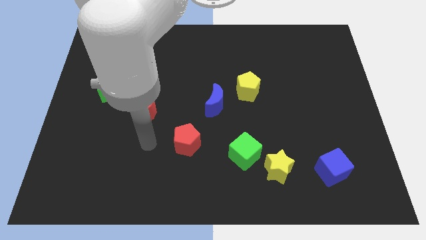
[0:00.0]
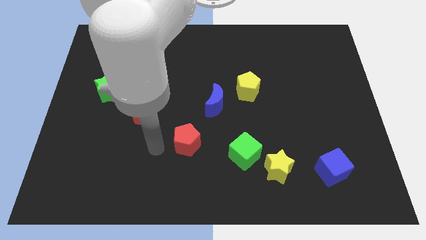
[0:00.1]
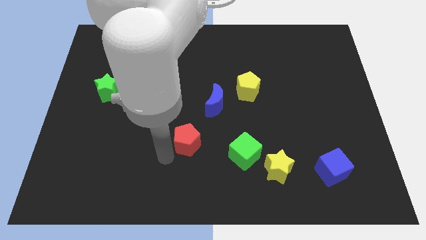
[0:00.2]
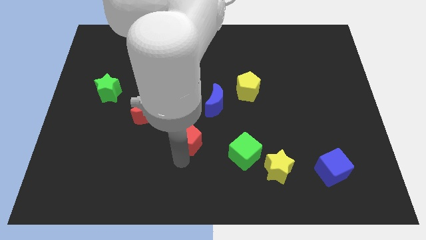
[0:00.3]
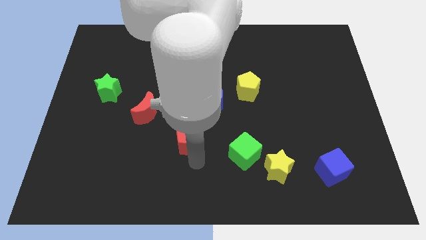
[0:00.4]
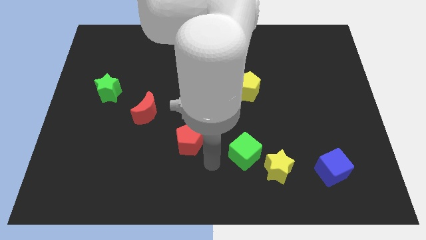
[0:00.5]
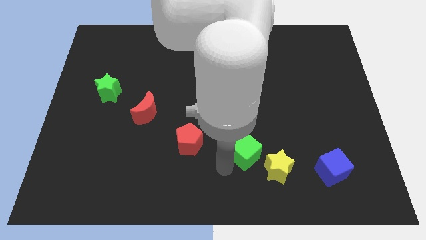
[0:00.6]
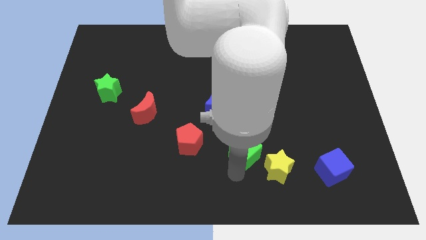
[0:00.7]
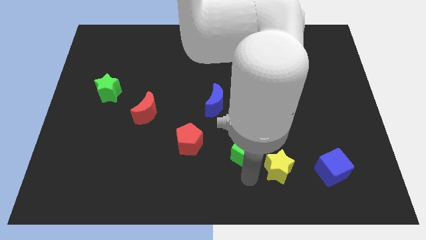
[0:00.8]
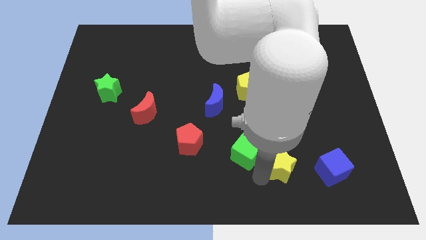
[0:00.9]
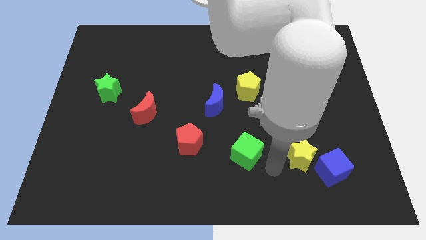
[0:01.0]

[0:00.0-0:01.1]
move the green cube away from the yellow star

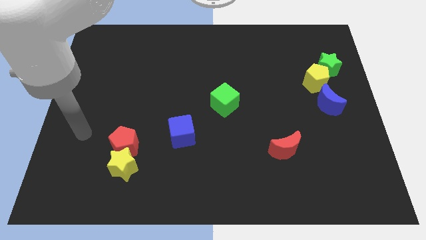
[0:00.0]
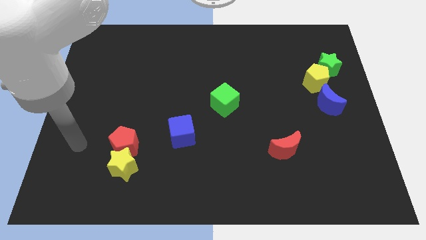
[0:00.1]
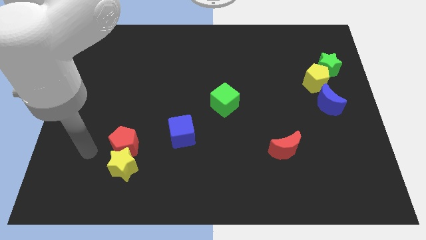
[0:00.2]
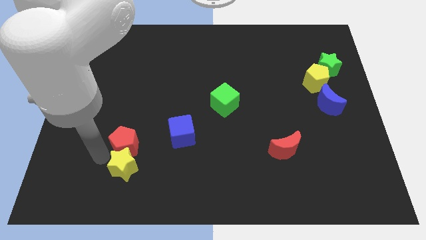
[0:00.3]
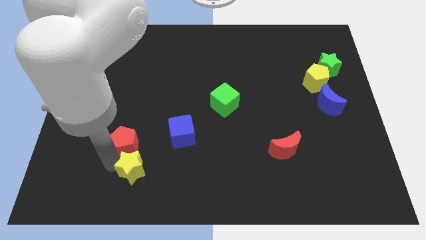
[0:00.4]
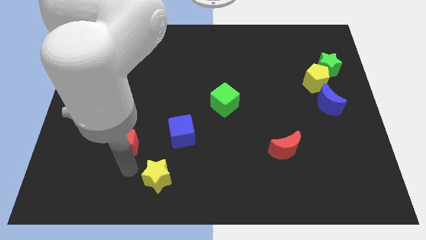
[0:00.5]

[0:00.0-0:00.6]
separate the red pentagon from the yellow star

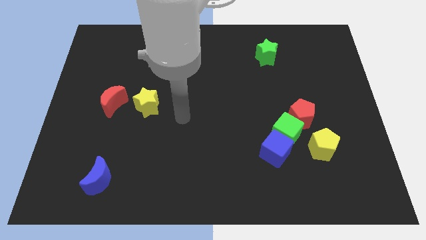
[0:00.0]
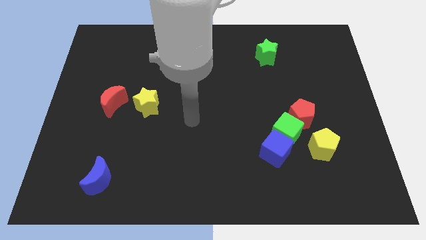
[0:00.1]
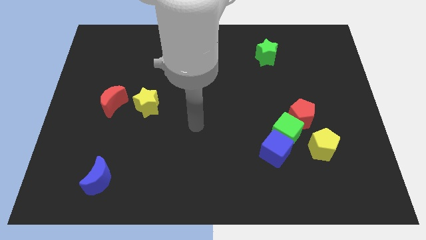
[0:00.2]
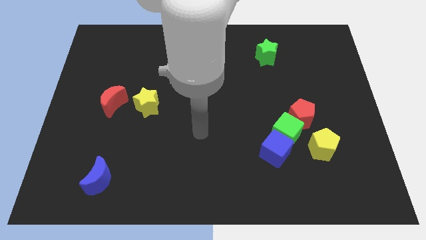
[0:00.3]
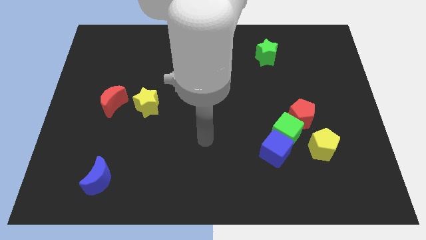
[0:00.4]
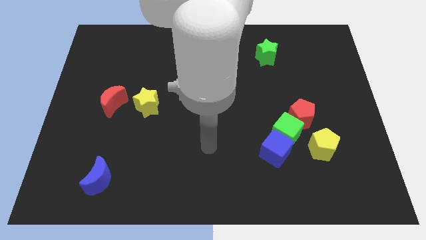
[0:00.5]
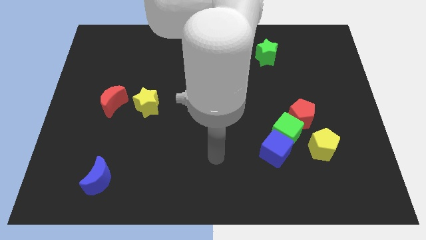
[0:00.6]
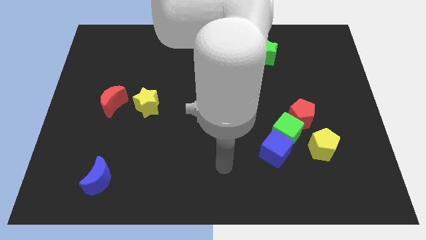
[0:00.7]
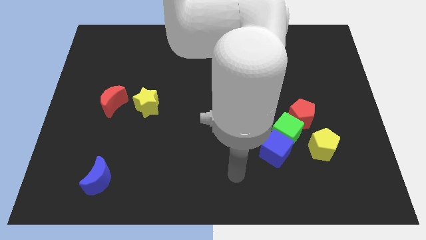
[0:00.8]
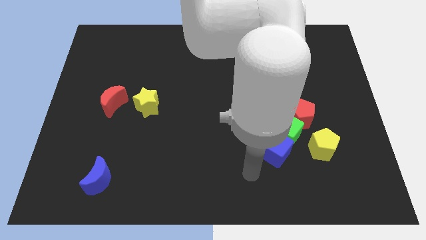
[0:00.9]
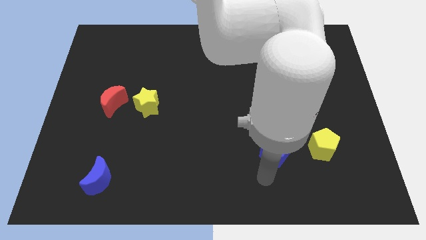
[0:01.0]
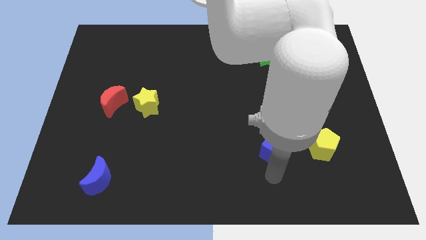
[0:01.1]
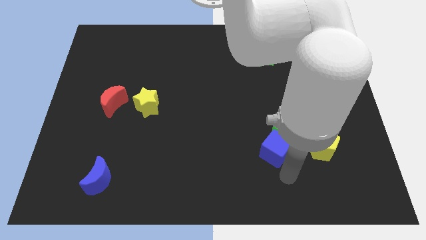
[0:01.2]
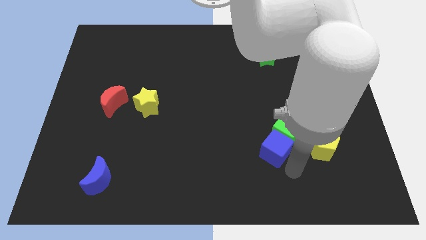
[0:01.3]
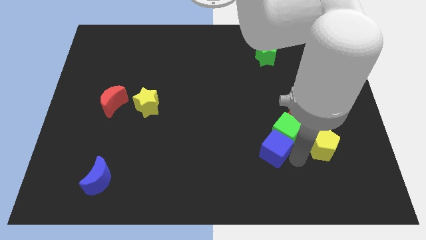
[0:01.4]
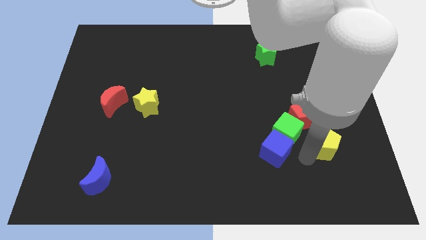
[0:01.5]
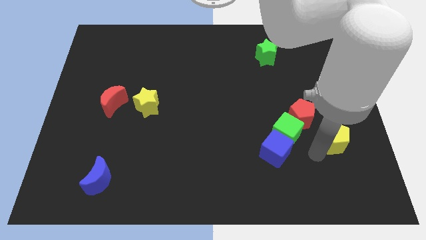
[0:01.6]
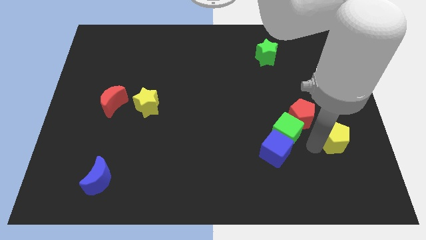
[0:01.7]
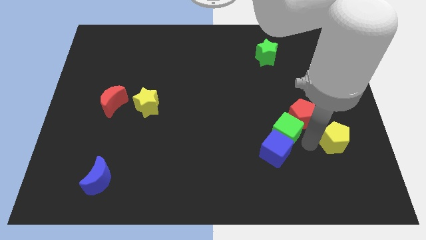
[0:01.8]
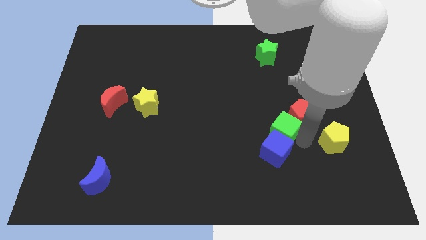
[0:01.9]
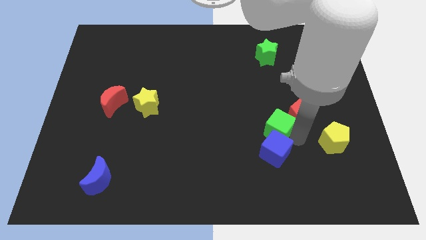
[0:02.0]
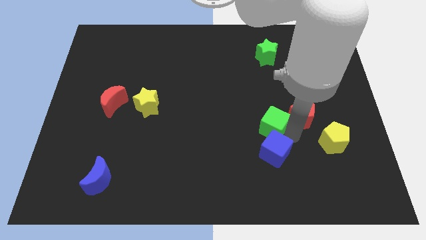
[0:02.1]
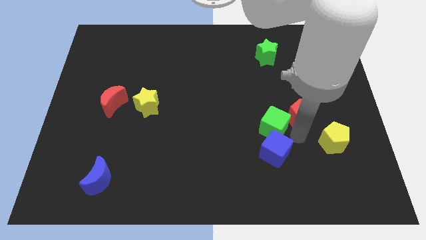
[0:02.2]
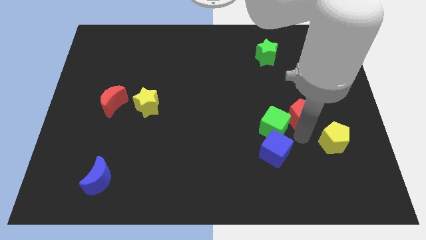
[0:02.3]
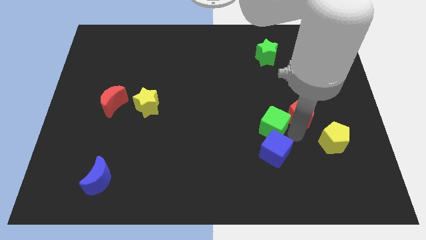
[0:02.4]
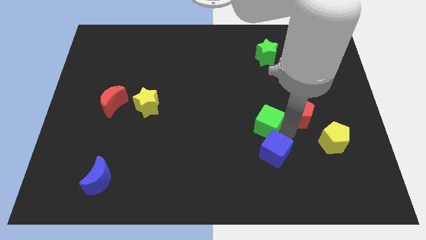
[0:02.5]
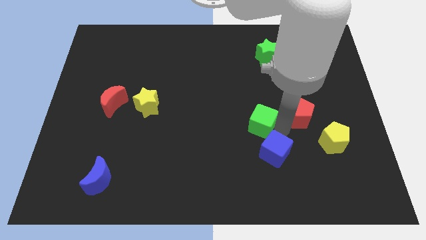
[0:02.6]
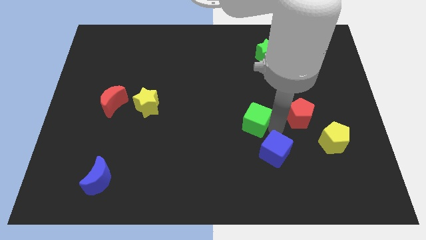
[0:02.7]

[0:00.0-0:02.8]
move the green cube away from the blue cube, red pentagon, and yellow pentagon

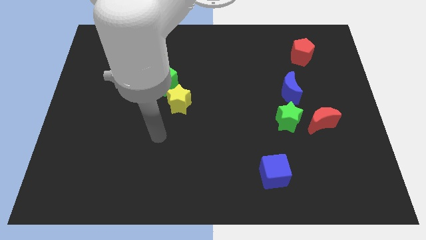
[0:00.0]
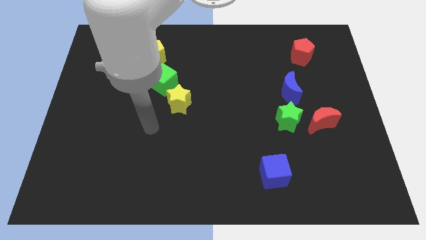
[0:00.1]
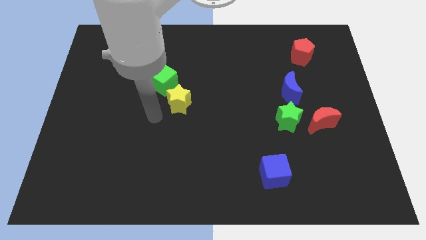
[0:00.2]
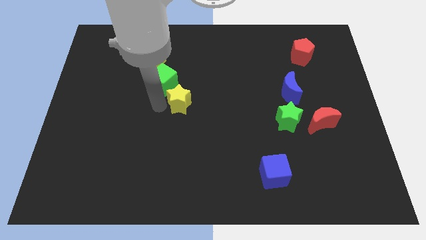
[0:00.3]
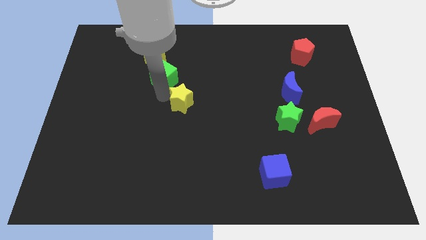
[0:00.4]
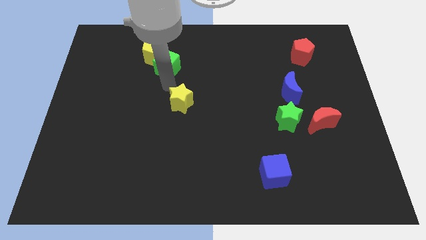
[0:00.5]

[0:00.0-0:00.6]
move the yellow star away from the green cube

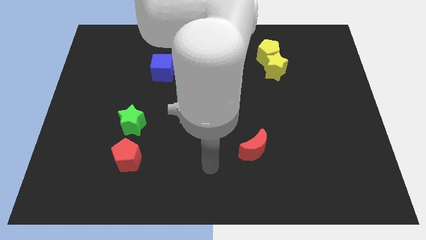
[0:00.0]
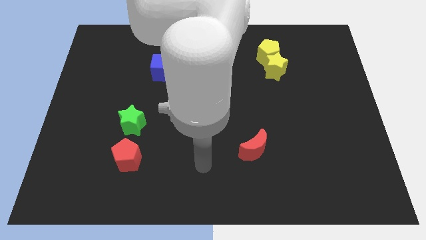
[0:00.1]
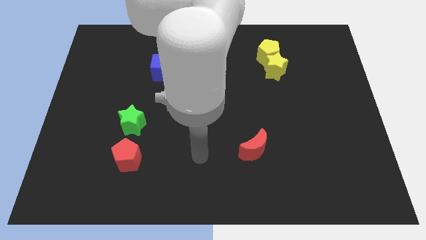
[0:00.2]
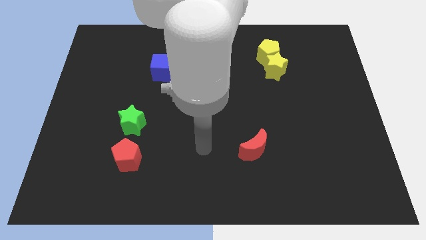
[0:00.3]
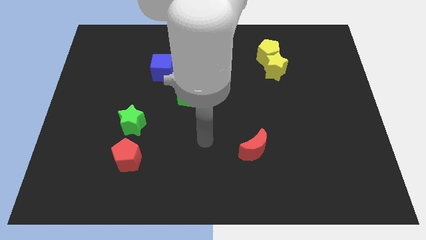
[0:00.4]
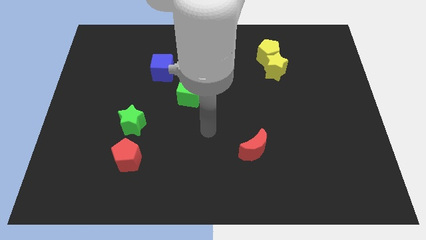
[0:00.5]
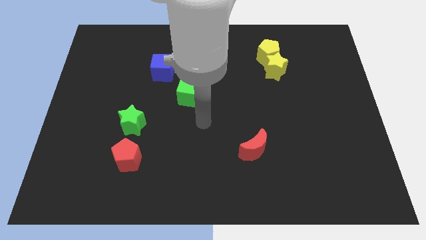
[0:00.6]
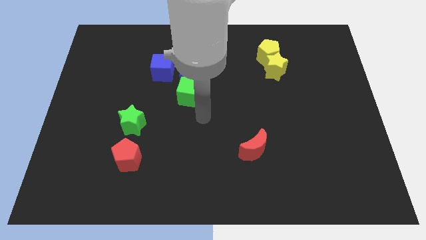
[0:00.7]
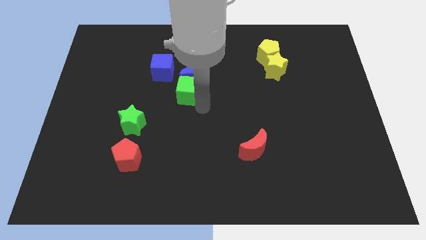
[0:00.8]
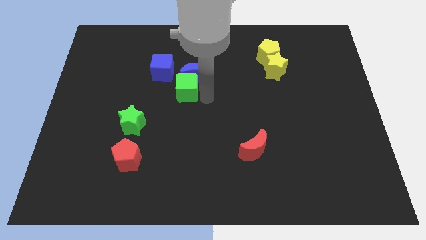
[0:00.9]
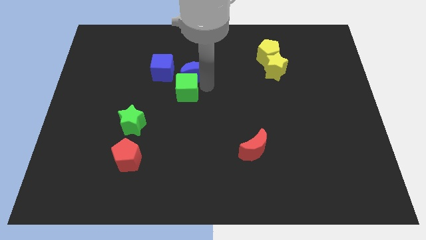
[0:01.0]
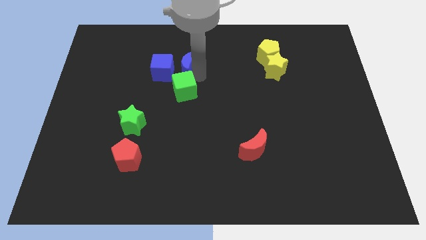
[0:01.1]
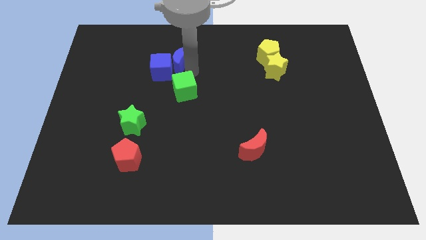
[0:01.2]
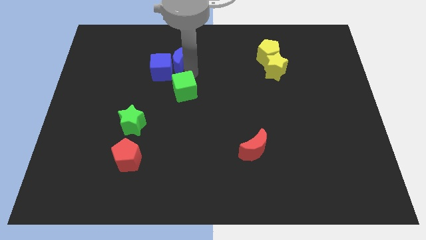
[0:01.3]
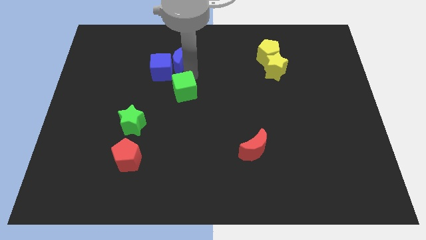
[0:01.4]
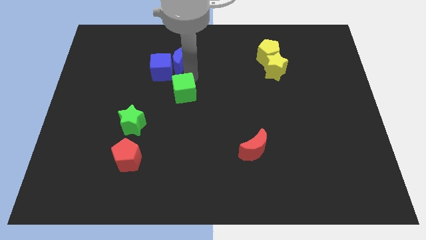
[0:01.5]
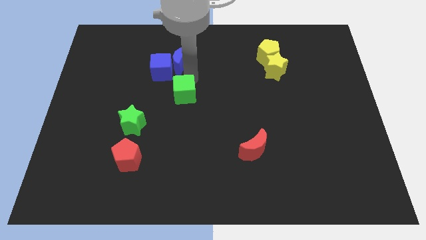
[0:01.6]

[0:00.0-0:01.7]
move the green cube away from the blue moon

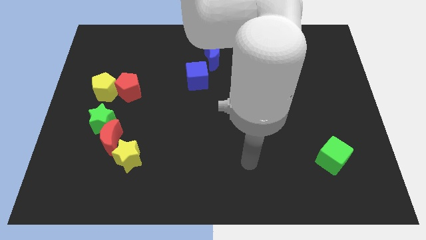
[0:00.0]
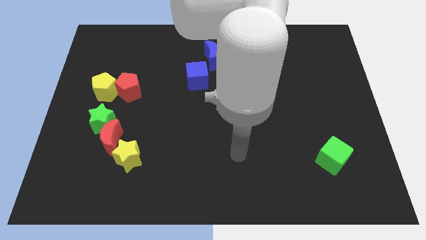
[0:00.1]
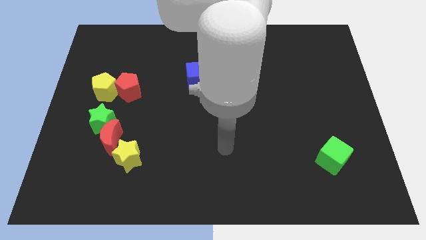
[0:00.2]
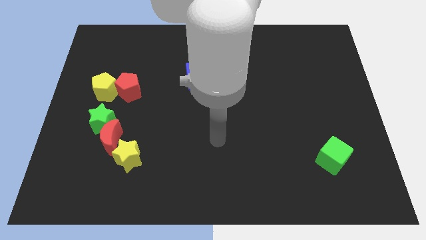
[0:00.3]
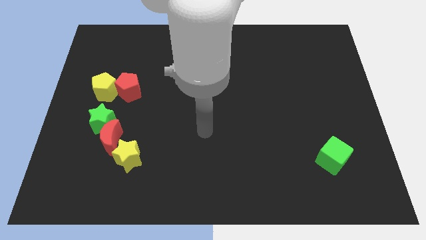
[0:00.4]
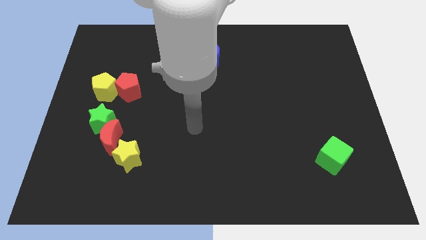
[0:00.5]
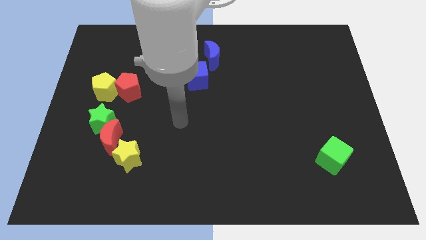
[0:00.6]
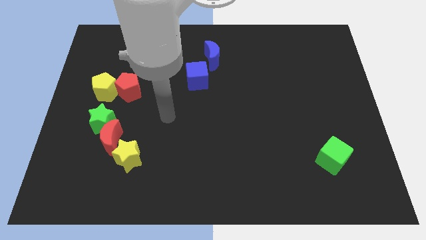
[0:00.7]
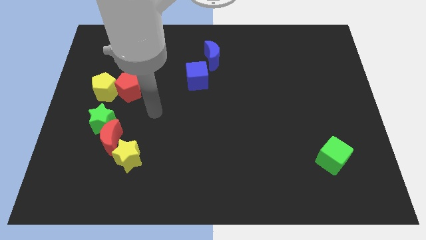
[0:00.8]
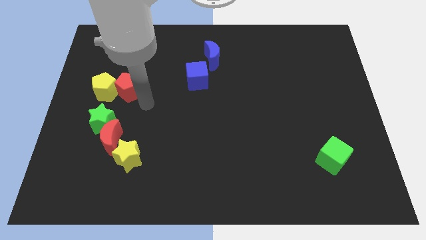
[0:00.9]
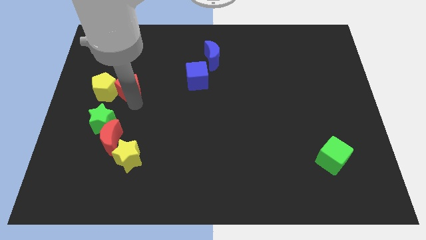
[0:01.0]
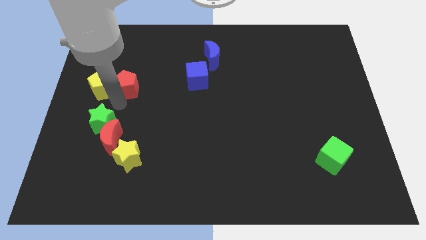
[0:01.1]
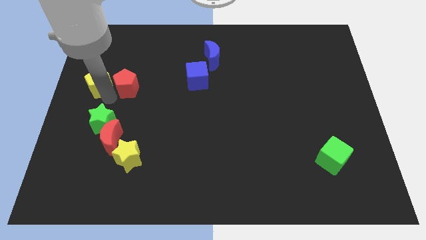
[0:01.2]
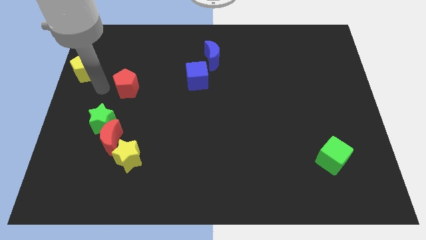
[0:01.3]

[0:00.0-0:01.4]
separate the red pentagon from the yellow pentagon

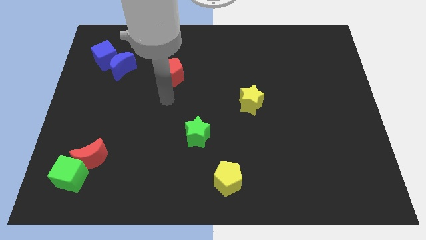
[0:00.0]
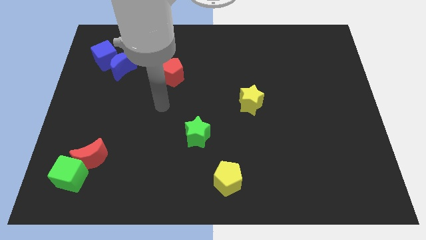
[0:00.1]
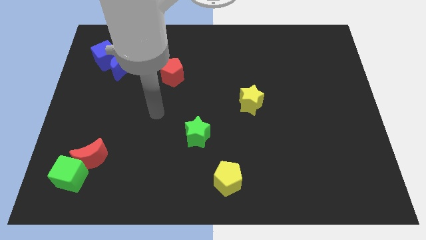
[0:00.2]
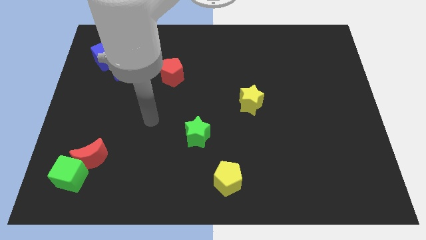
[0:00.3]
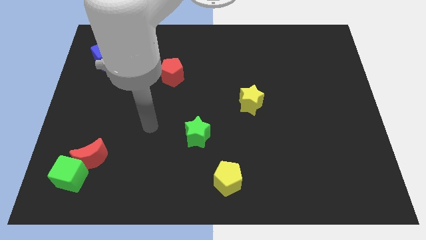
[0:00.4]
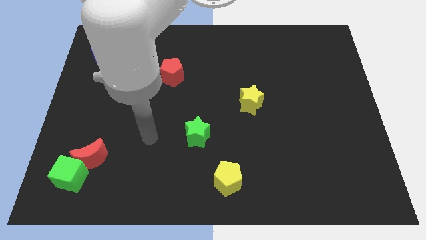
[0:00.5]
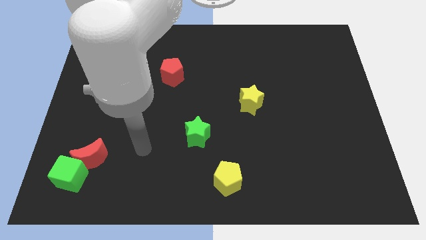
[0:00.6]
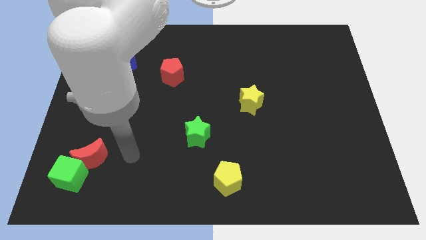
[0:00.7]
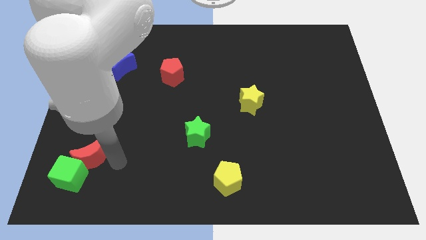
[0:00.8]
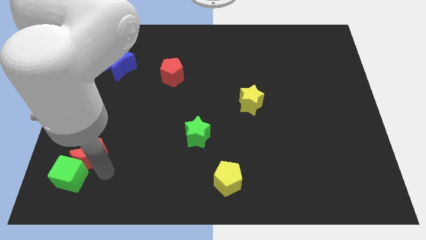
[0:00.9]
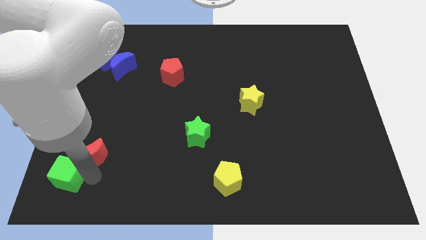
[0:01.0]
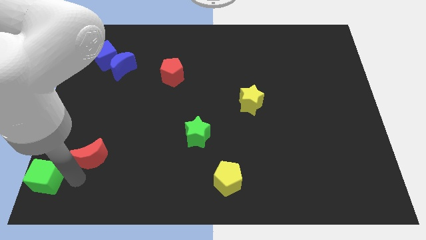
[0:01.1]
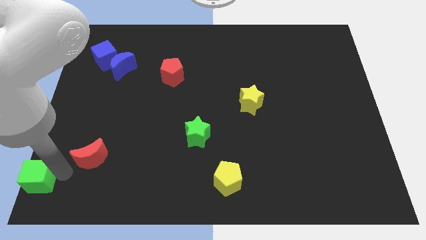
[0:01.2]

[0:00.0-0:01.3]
move the red moon away from the green cube
